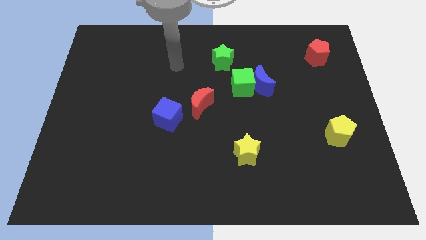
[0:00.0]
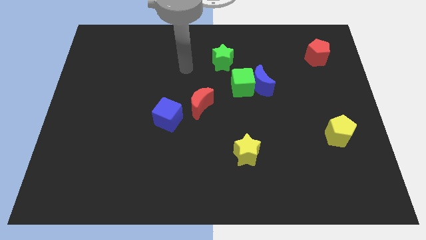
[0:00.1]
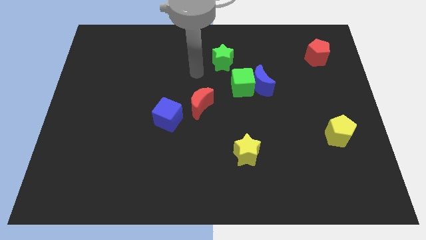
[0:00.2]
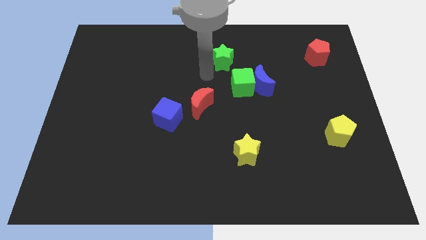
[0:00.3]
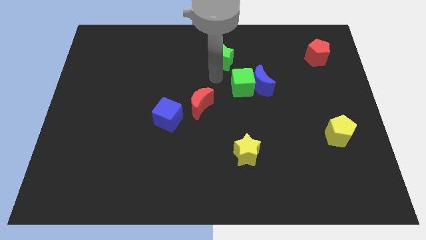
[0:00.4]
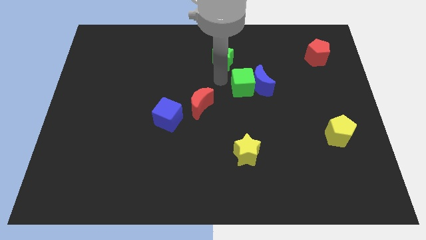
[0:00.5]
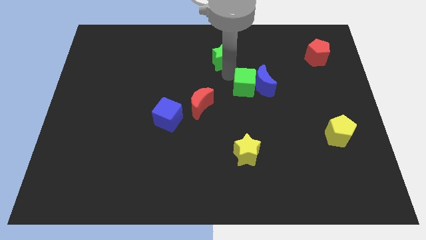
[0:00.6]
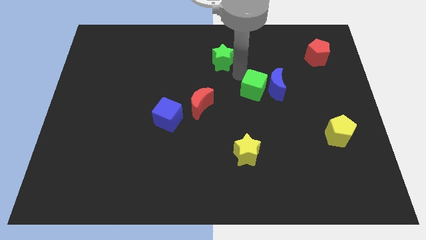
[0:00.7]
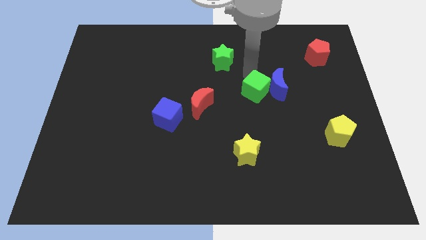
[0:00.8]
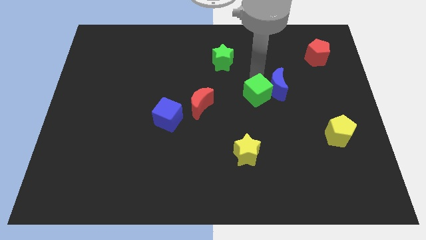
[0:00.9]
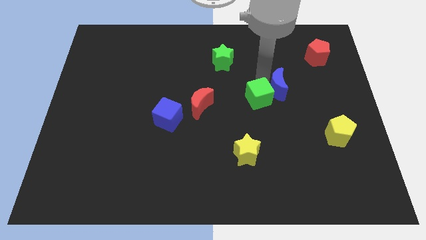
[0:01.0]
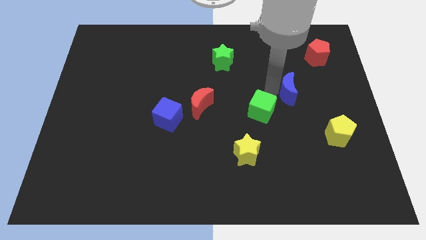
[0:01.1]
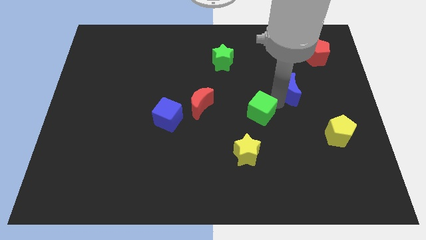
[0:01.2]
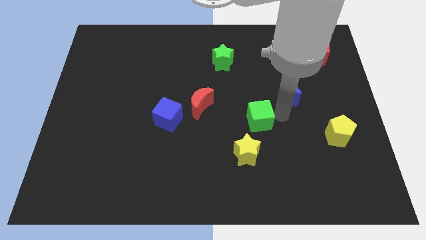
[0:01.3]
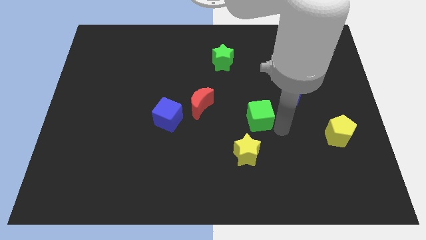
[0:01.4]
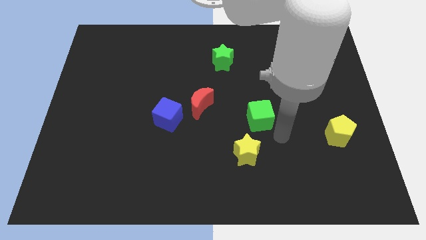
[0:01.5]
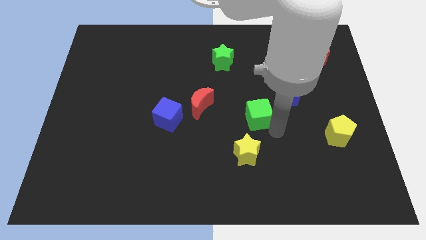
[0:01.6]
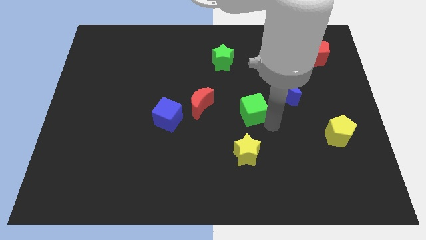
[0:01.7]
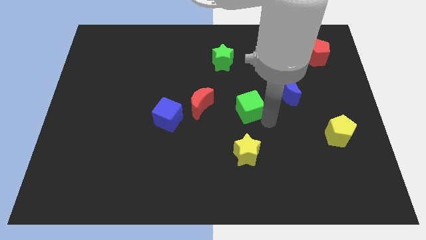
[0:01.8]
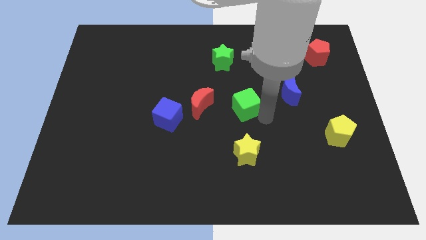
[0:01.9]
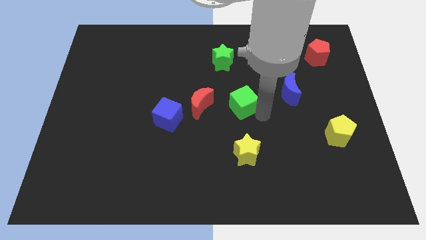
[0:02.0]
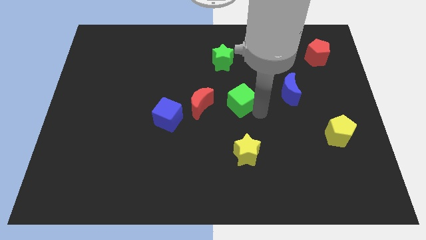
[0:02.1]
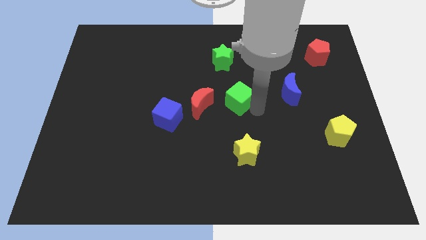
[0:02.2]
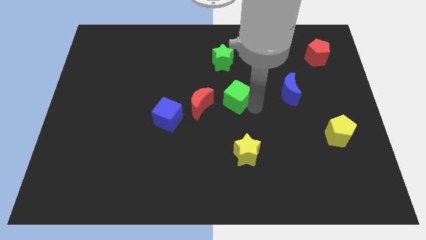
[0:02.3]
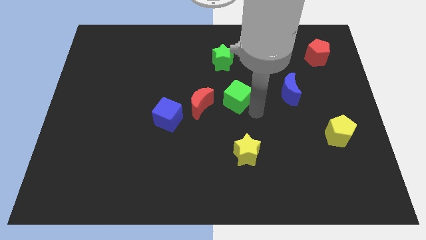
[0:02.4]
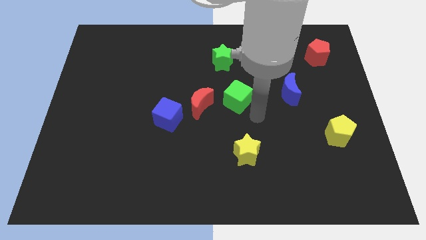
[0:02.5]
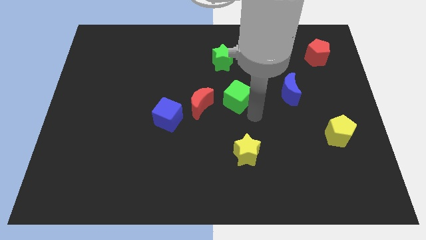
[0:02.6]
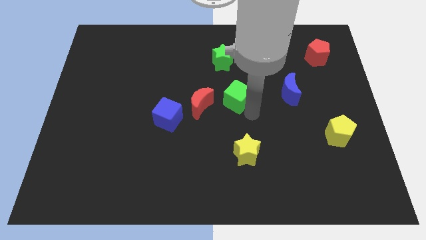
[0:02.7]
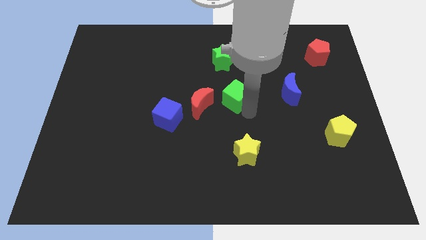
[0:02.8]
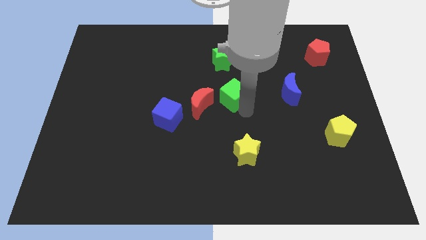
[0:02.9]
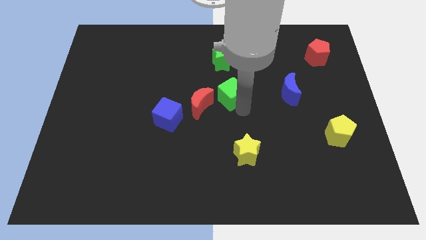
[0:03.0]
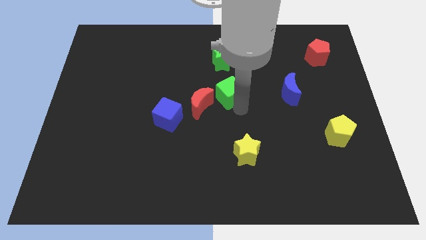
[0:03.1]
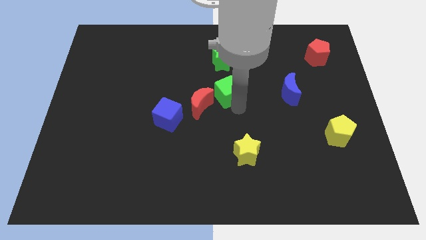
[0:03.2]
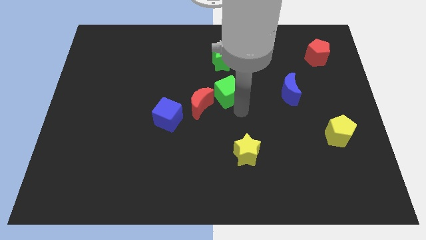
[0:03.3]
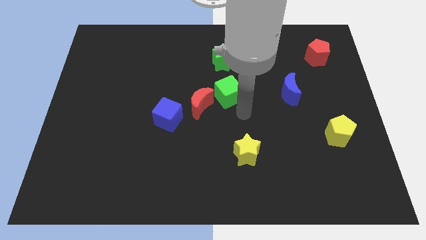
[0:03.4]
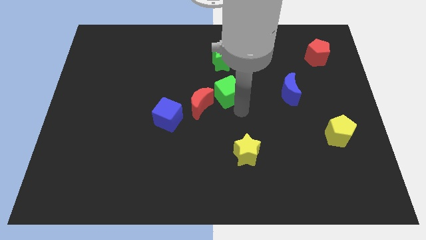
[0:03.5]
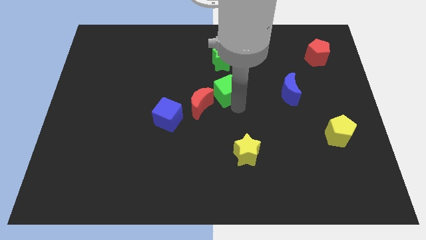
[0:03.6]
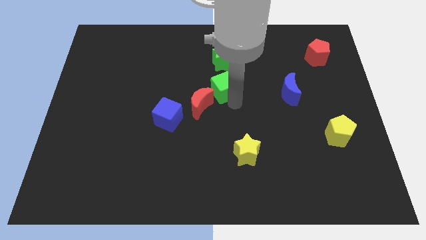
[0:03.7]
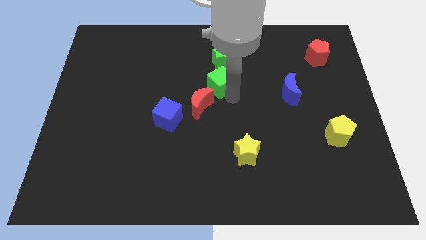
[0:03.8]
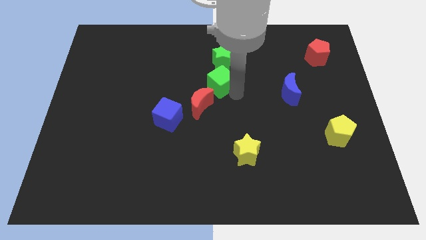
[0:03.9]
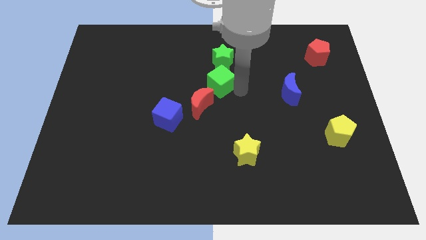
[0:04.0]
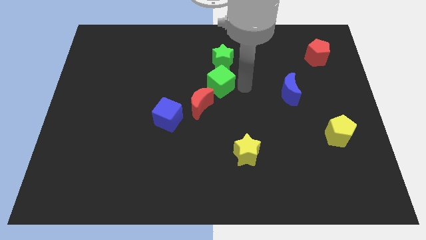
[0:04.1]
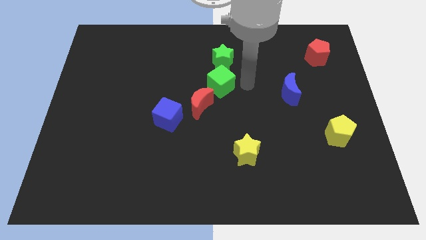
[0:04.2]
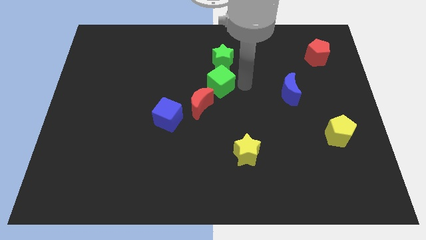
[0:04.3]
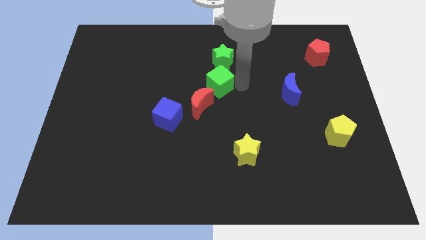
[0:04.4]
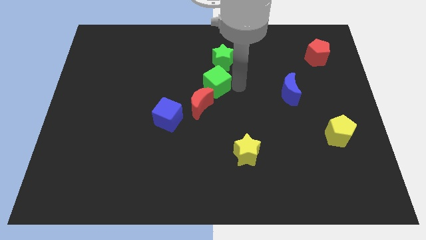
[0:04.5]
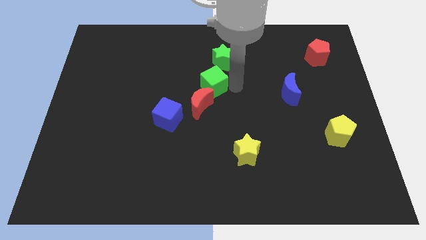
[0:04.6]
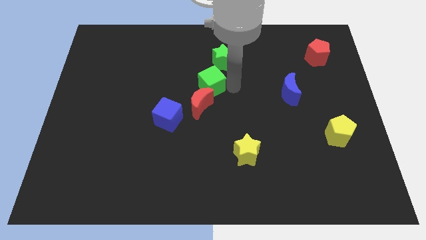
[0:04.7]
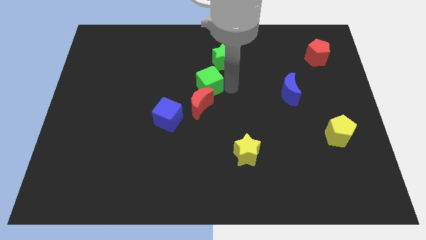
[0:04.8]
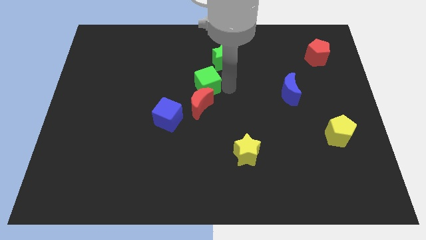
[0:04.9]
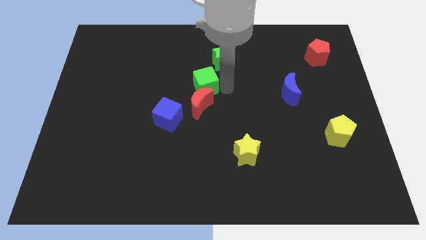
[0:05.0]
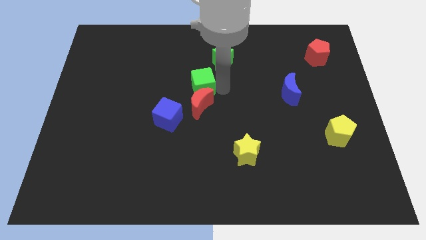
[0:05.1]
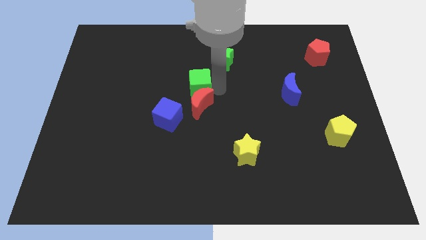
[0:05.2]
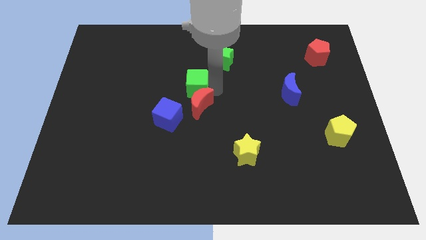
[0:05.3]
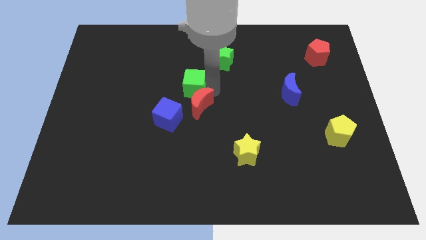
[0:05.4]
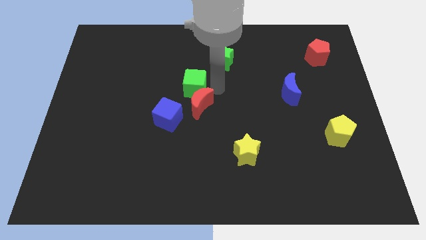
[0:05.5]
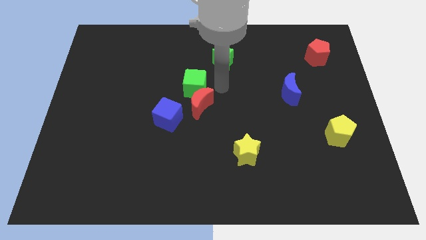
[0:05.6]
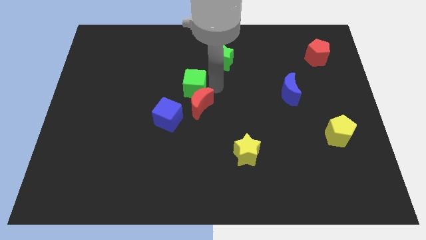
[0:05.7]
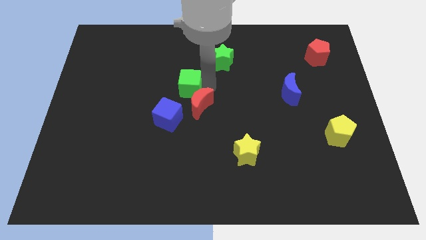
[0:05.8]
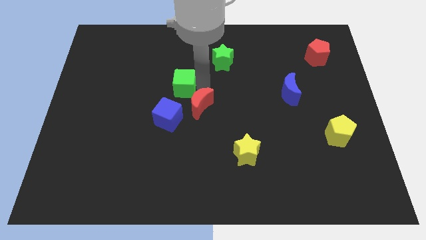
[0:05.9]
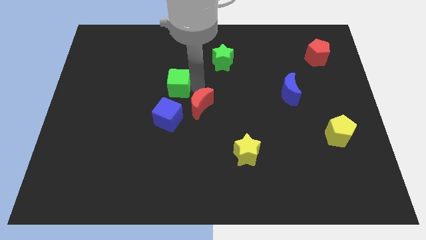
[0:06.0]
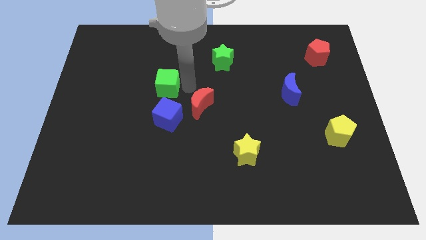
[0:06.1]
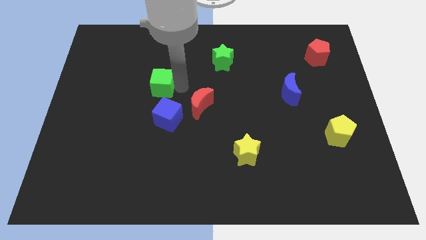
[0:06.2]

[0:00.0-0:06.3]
push the green cube left

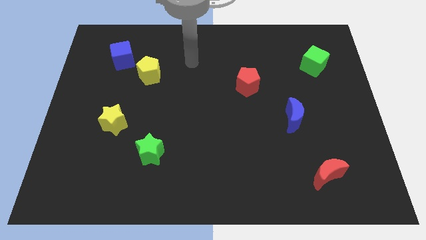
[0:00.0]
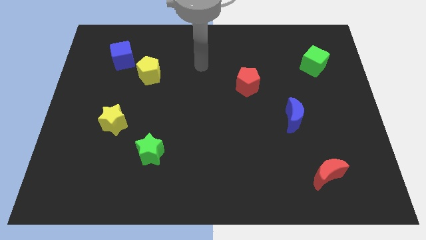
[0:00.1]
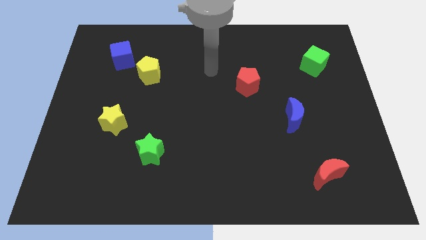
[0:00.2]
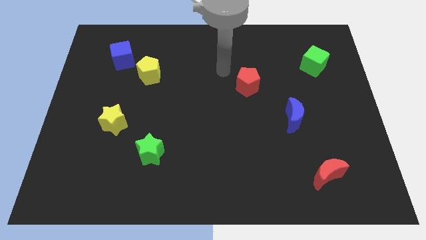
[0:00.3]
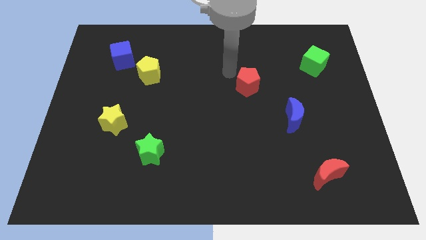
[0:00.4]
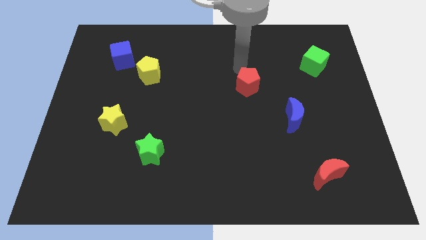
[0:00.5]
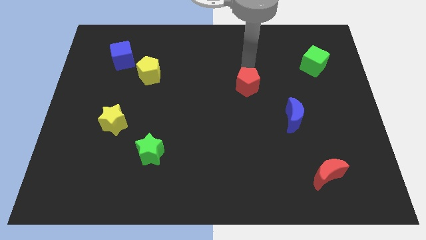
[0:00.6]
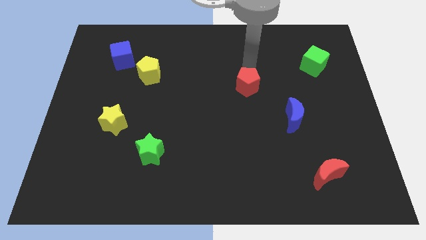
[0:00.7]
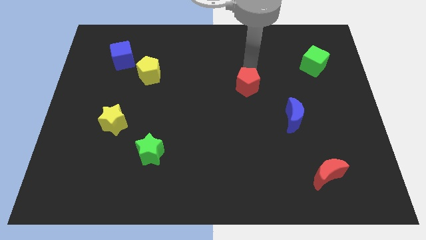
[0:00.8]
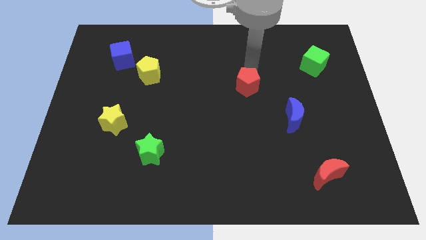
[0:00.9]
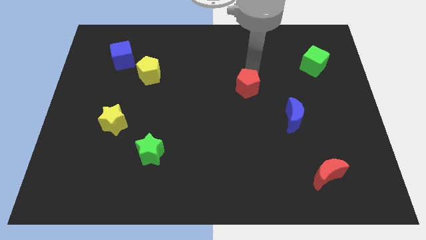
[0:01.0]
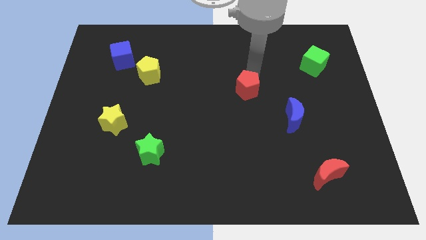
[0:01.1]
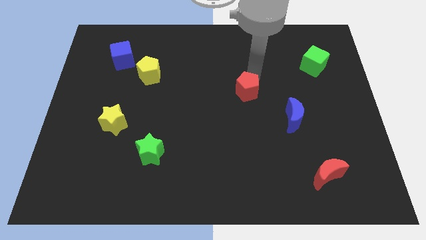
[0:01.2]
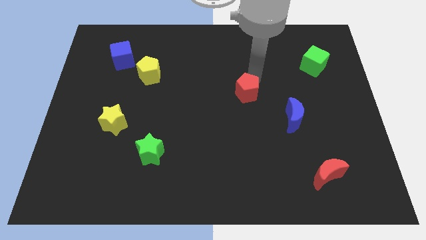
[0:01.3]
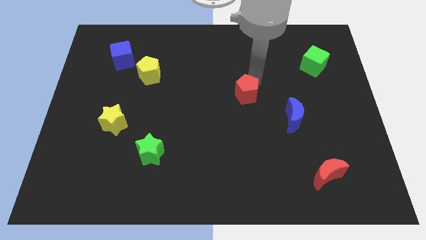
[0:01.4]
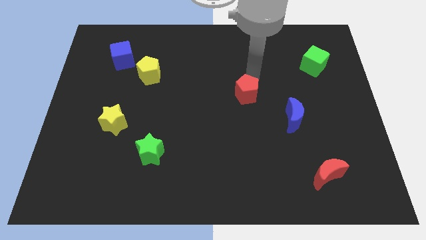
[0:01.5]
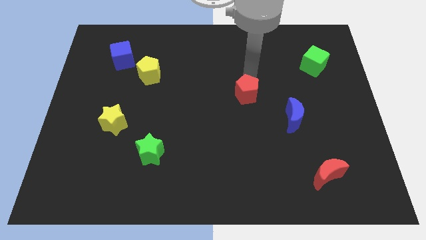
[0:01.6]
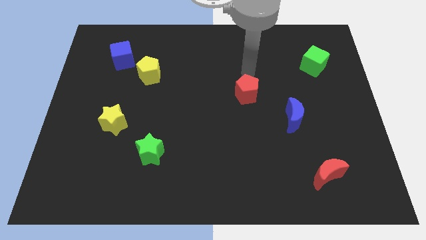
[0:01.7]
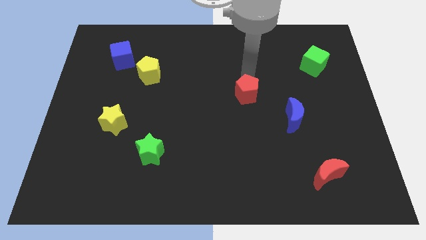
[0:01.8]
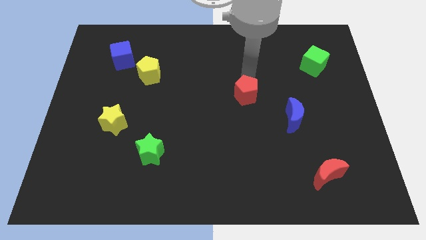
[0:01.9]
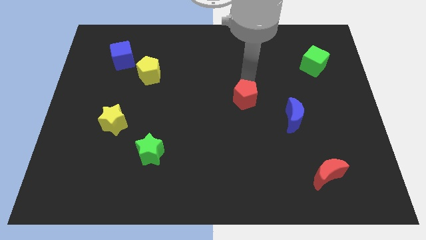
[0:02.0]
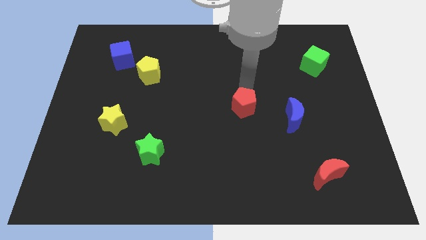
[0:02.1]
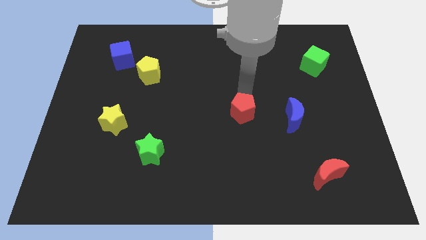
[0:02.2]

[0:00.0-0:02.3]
push the red pentagon downwards slightly
